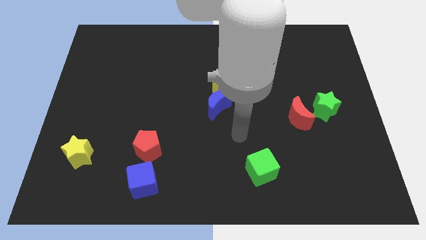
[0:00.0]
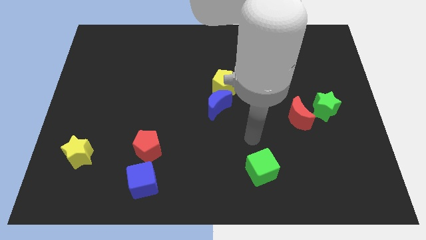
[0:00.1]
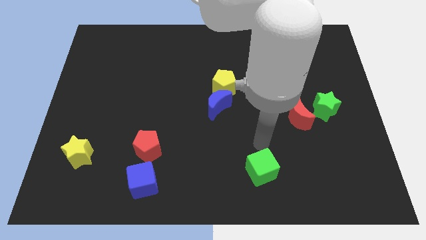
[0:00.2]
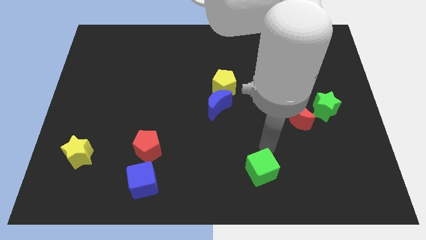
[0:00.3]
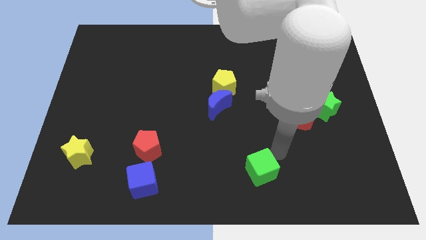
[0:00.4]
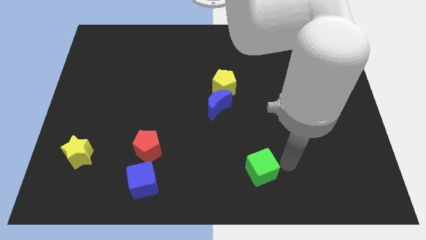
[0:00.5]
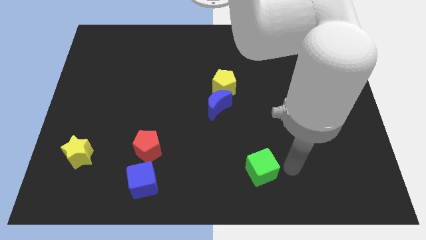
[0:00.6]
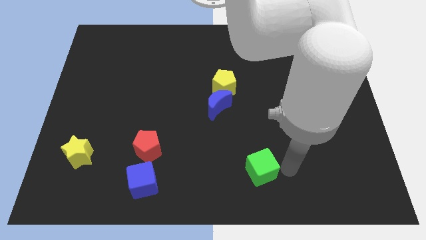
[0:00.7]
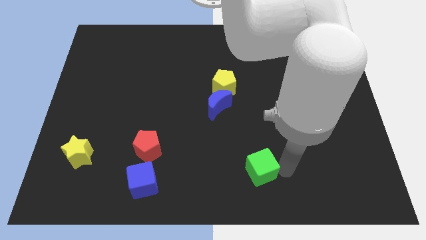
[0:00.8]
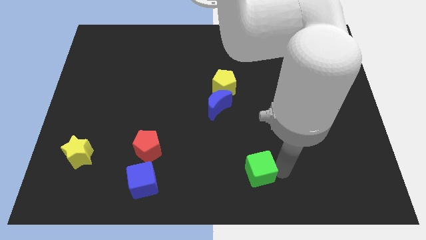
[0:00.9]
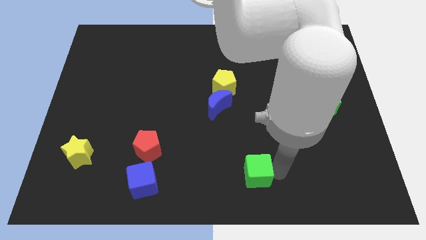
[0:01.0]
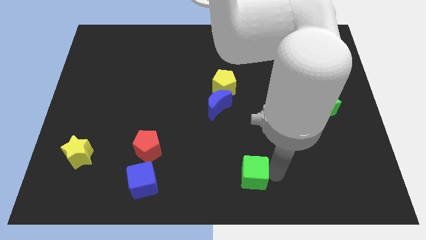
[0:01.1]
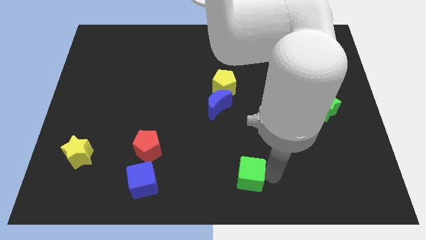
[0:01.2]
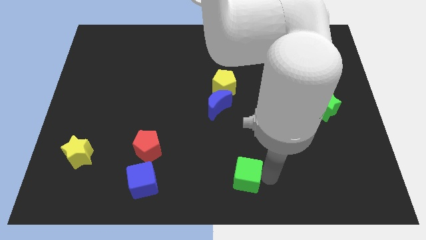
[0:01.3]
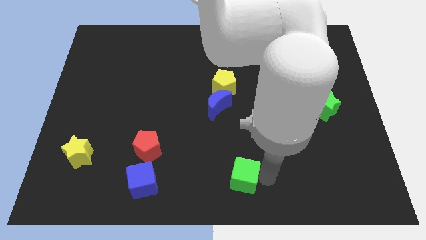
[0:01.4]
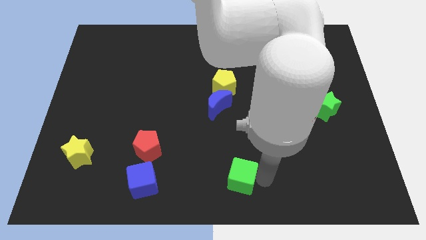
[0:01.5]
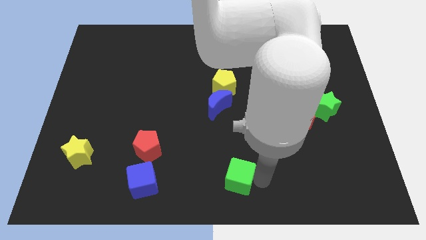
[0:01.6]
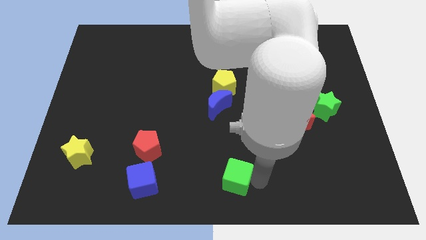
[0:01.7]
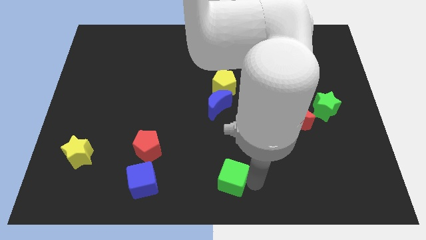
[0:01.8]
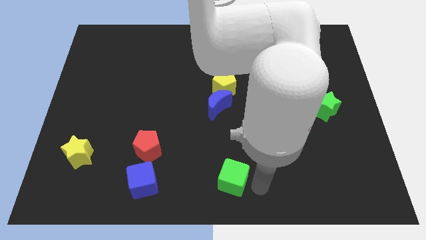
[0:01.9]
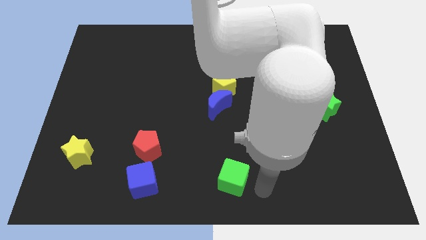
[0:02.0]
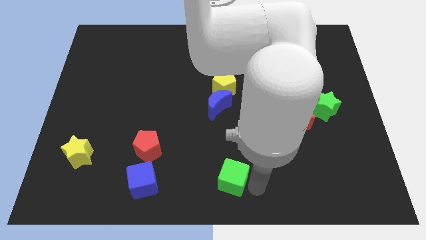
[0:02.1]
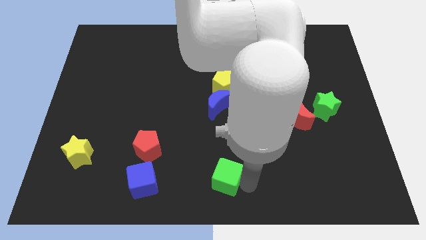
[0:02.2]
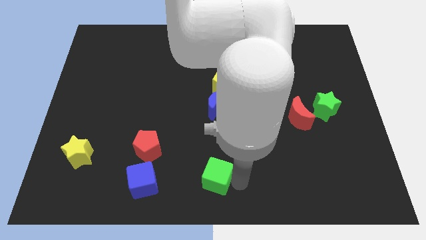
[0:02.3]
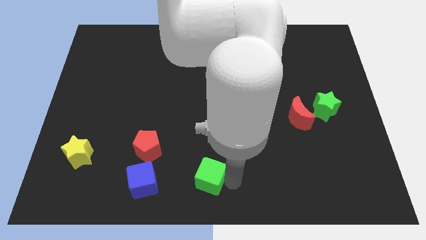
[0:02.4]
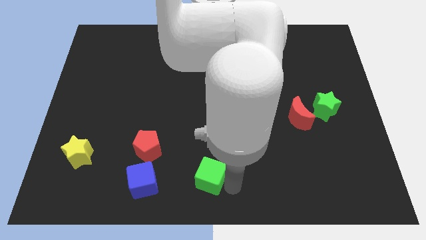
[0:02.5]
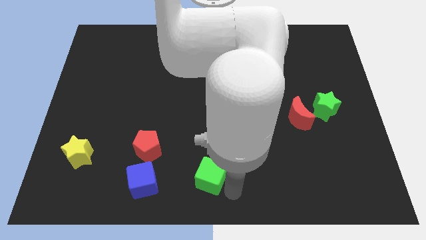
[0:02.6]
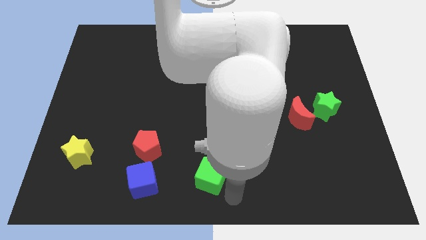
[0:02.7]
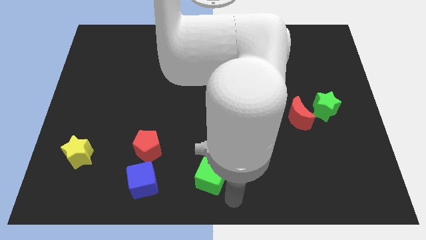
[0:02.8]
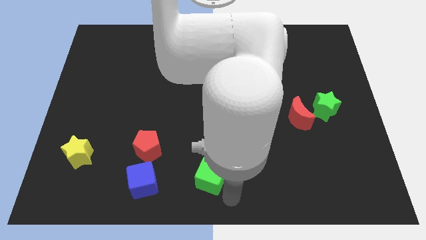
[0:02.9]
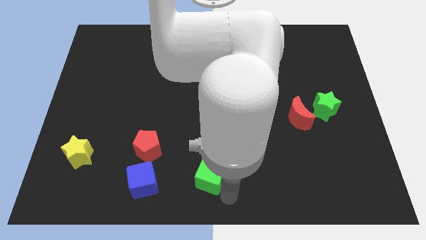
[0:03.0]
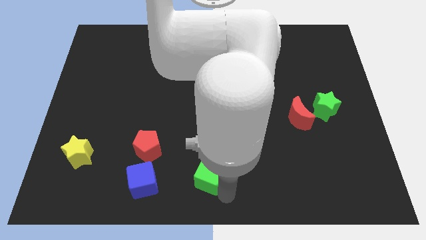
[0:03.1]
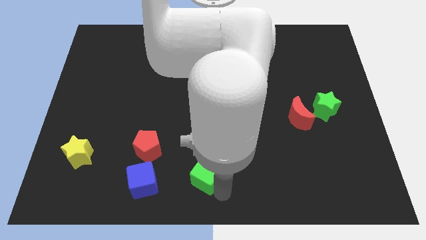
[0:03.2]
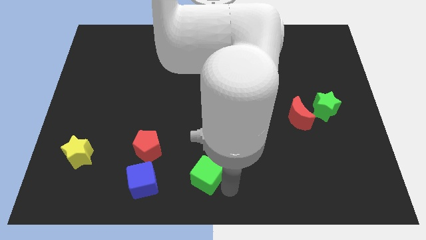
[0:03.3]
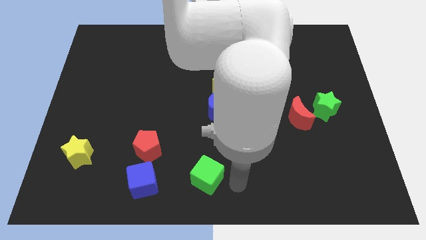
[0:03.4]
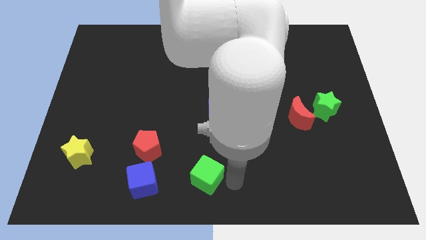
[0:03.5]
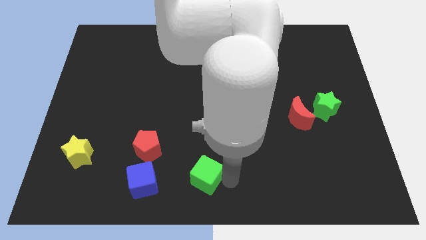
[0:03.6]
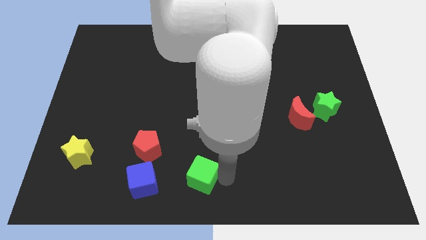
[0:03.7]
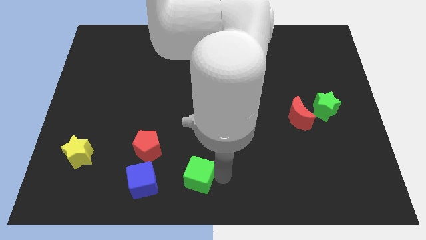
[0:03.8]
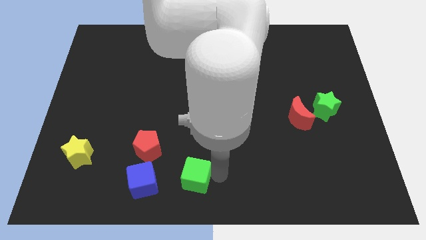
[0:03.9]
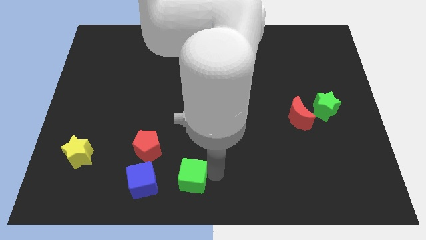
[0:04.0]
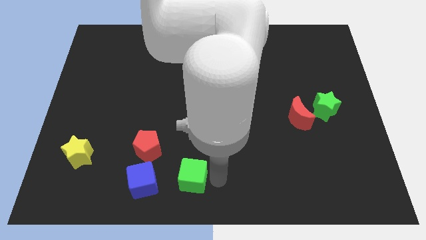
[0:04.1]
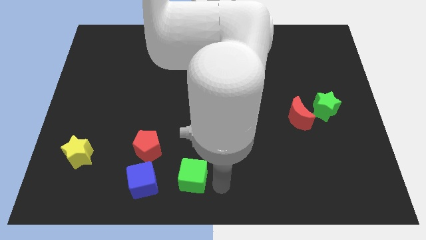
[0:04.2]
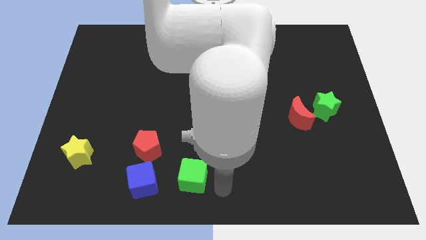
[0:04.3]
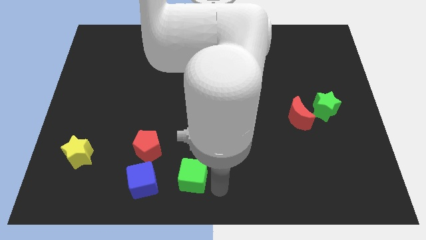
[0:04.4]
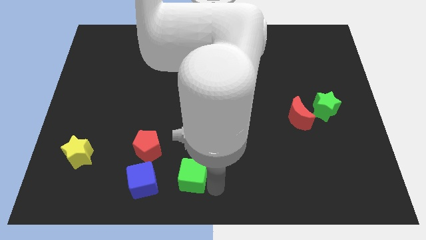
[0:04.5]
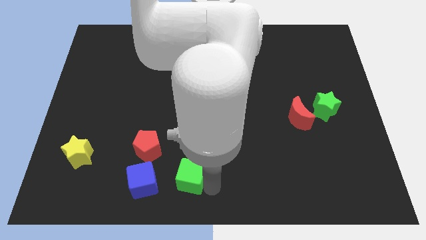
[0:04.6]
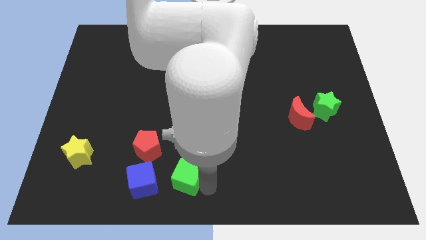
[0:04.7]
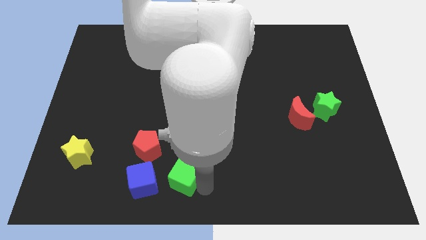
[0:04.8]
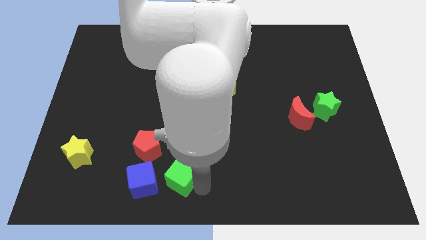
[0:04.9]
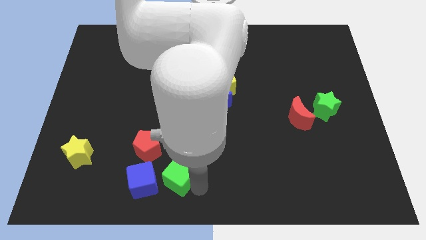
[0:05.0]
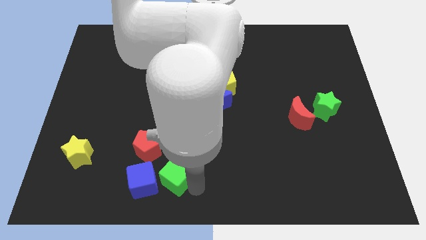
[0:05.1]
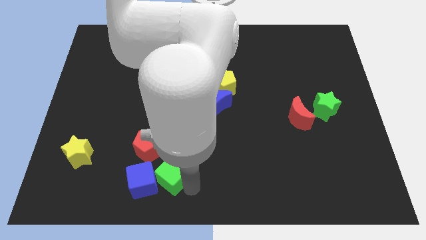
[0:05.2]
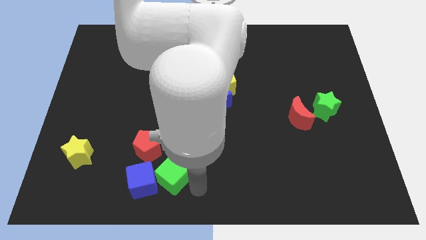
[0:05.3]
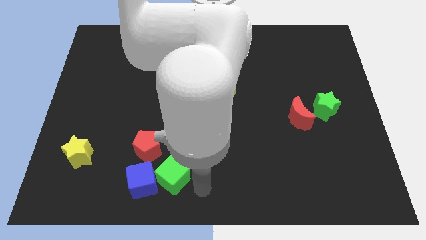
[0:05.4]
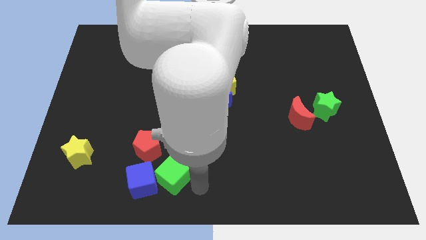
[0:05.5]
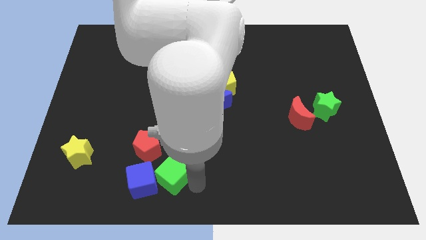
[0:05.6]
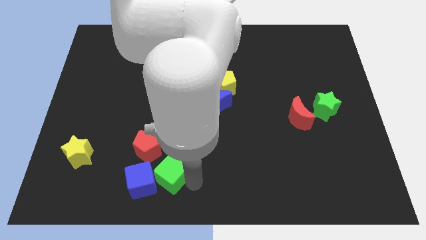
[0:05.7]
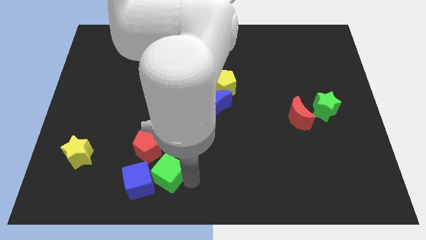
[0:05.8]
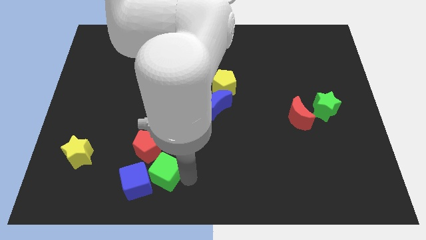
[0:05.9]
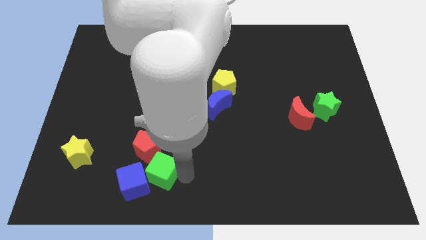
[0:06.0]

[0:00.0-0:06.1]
move the green cube left

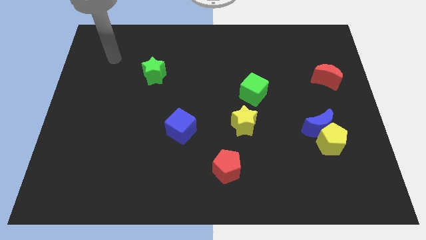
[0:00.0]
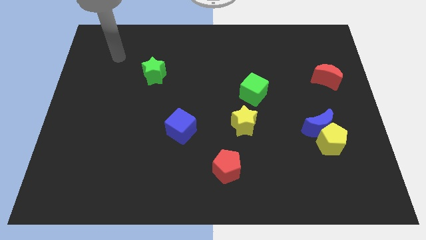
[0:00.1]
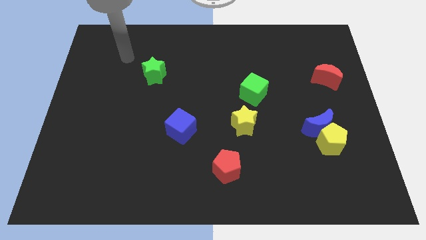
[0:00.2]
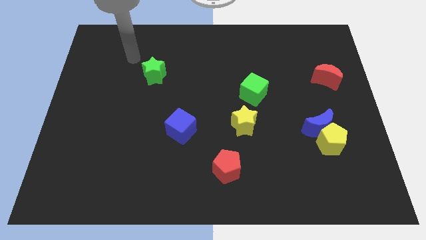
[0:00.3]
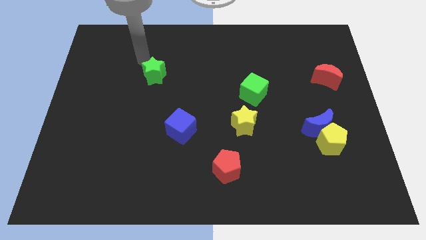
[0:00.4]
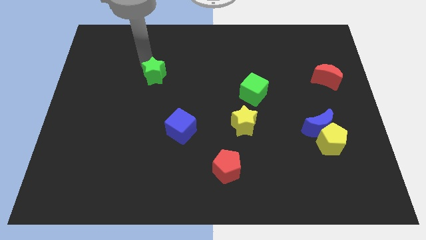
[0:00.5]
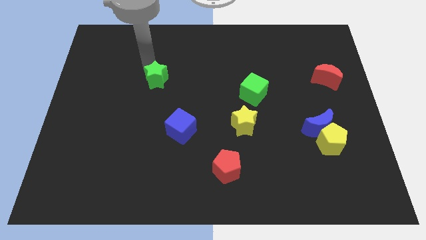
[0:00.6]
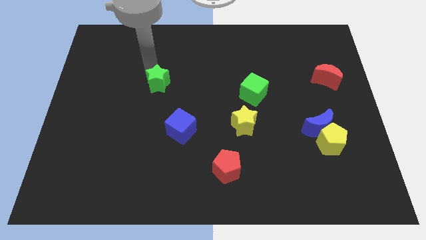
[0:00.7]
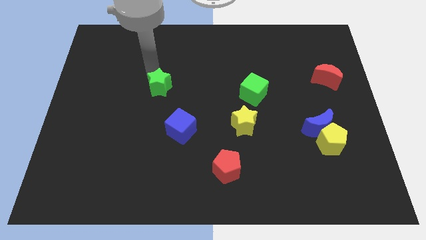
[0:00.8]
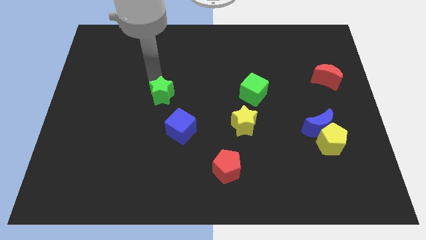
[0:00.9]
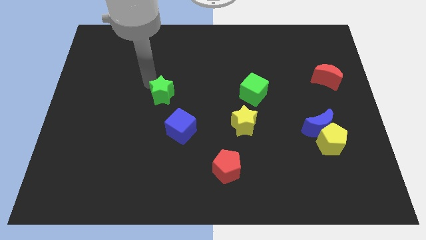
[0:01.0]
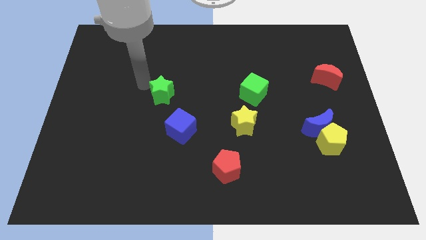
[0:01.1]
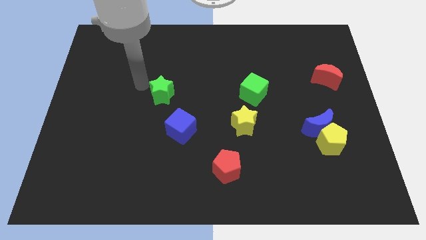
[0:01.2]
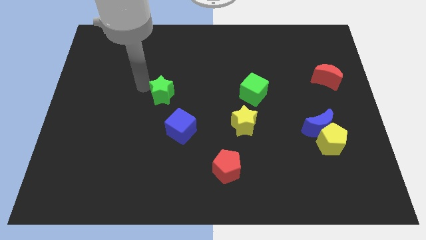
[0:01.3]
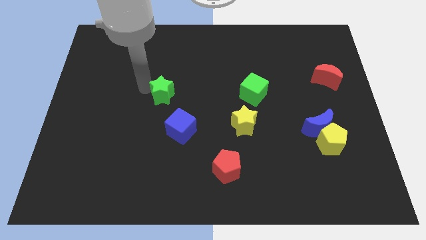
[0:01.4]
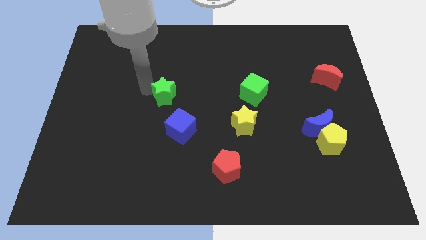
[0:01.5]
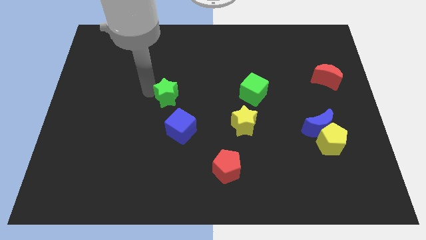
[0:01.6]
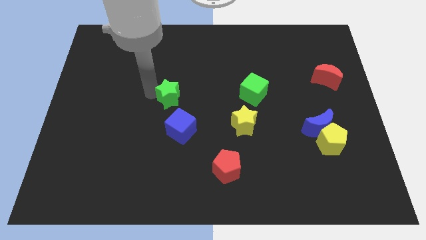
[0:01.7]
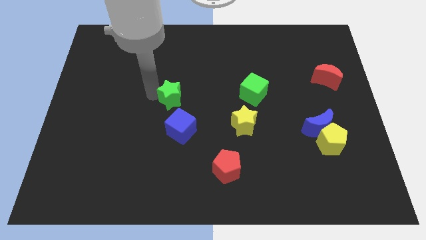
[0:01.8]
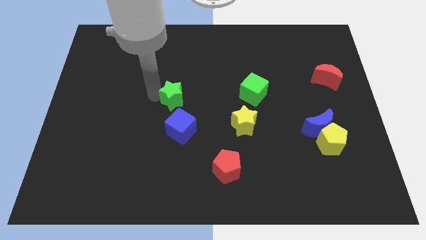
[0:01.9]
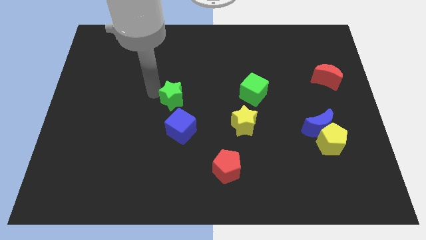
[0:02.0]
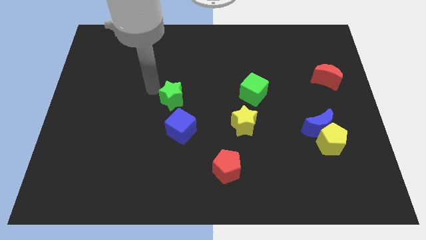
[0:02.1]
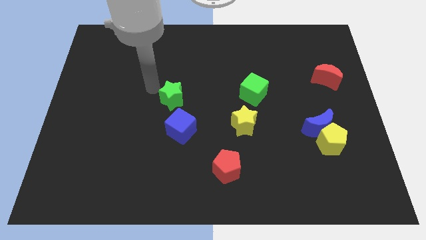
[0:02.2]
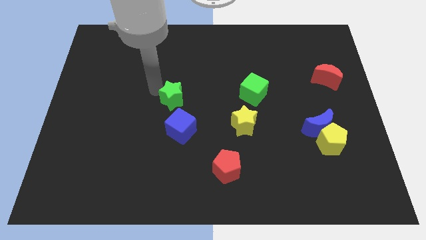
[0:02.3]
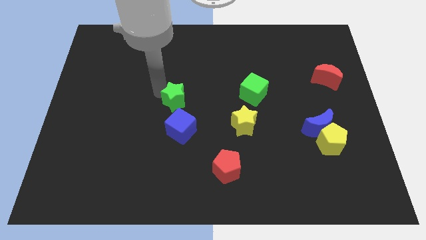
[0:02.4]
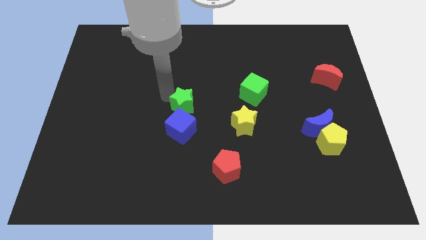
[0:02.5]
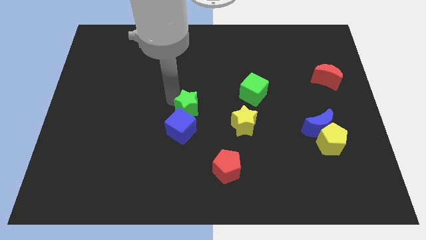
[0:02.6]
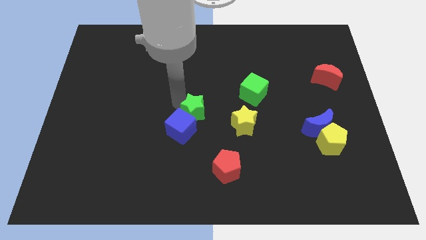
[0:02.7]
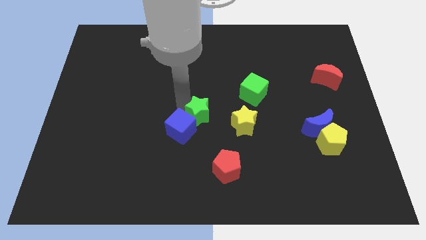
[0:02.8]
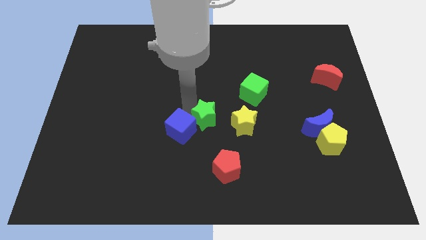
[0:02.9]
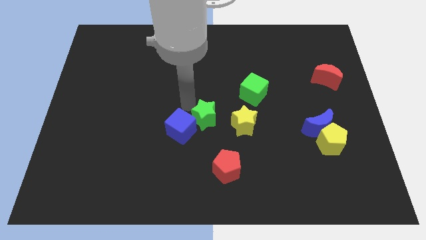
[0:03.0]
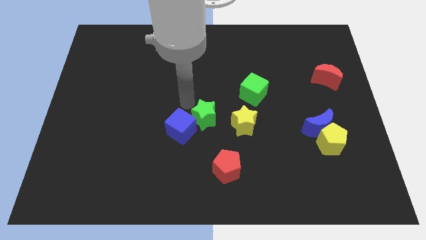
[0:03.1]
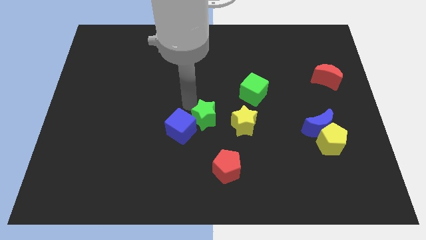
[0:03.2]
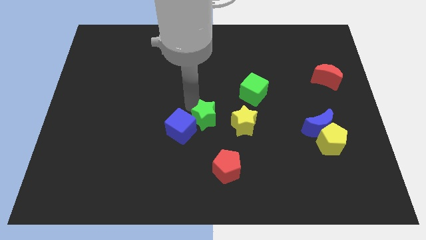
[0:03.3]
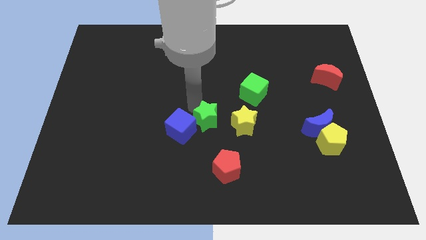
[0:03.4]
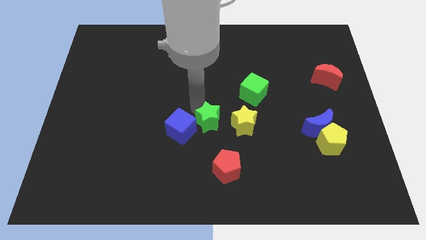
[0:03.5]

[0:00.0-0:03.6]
slide the green star downwards and right diagonally
